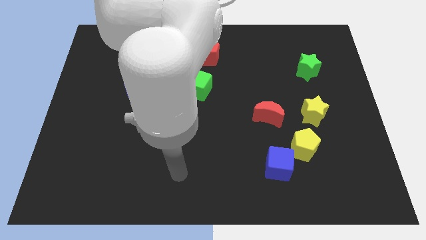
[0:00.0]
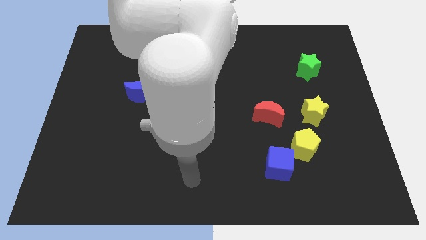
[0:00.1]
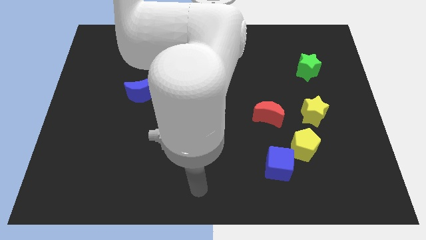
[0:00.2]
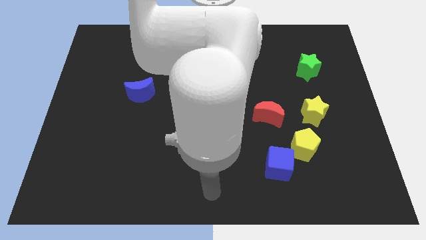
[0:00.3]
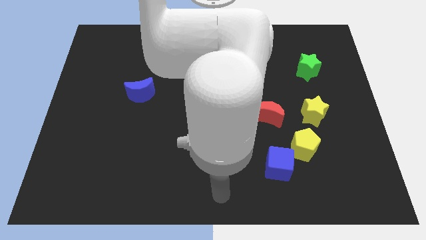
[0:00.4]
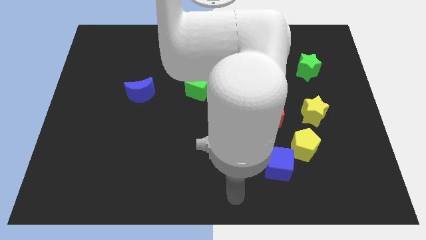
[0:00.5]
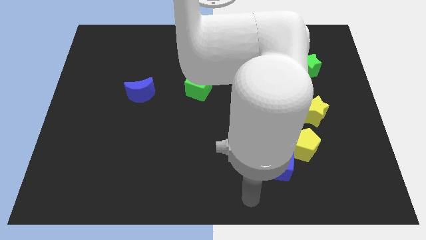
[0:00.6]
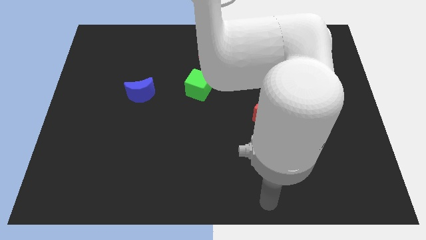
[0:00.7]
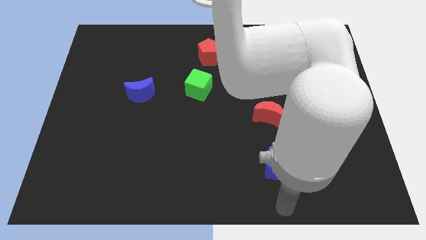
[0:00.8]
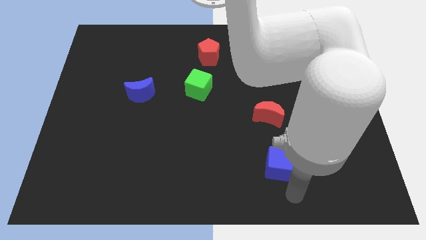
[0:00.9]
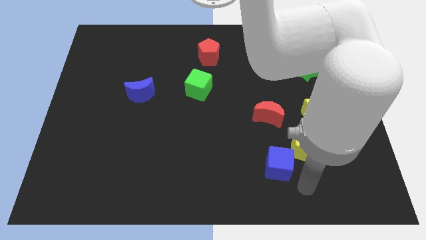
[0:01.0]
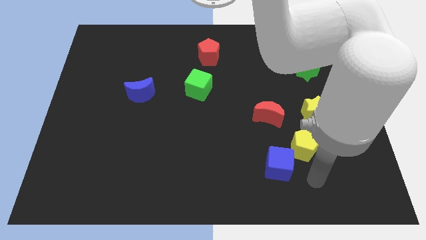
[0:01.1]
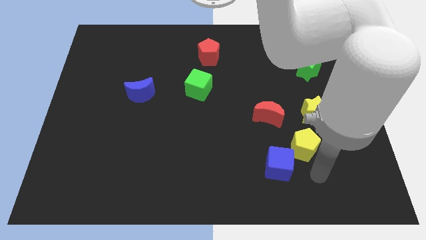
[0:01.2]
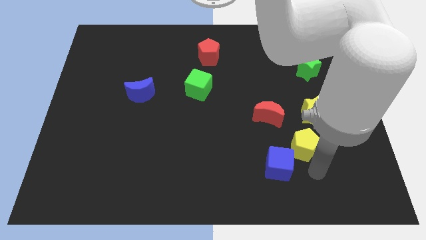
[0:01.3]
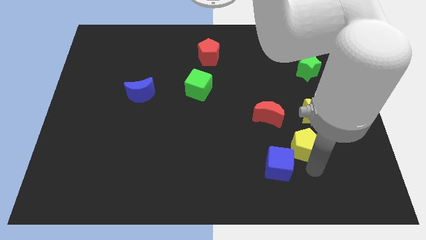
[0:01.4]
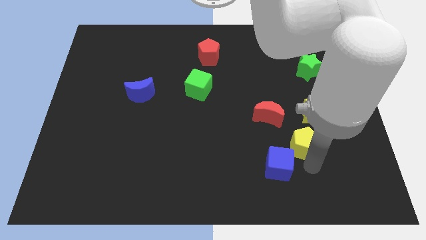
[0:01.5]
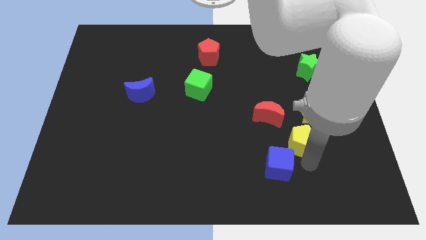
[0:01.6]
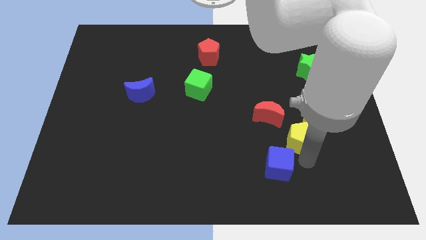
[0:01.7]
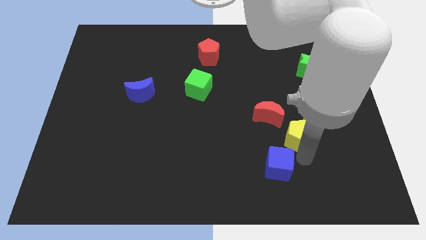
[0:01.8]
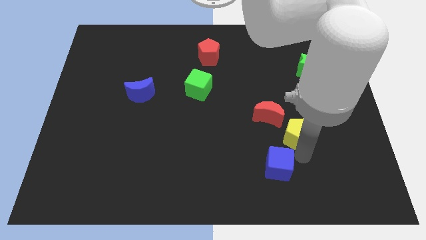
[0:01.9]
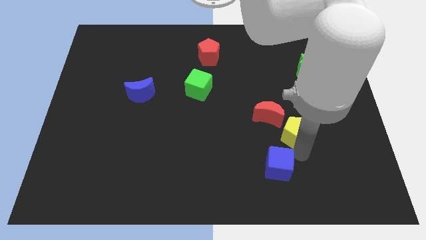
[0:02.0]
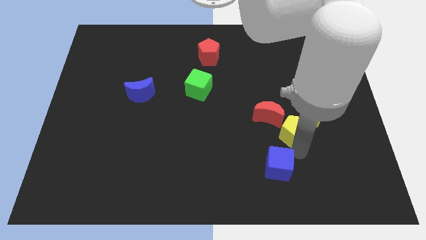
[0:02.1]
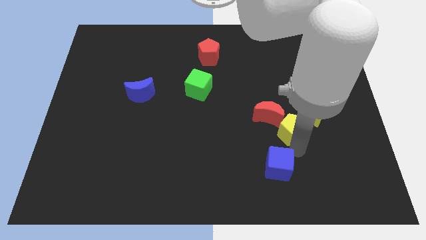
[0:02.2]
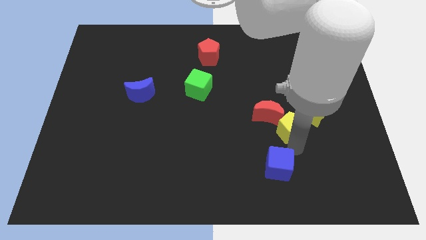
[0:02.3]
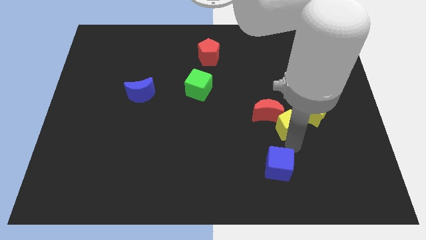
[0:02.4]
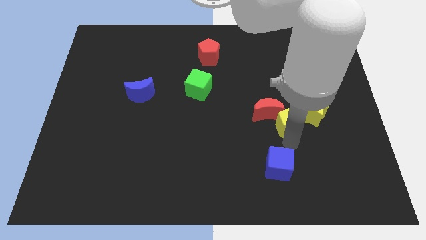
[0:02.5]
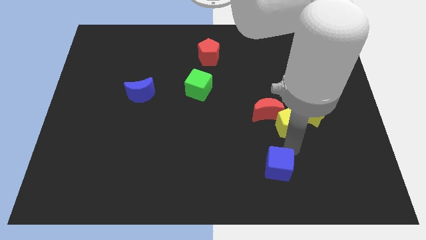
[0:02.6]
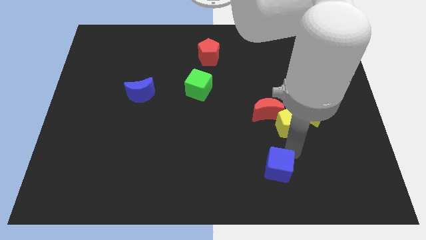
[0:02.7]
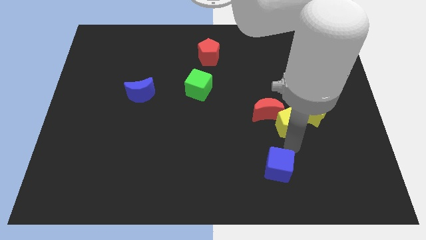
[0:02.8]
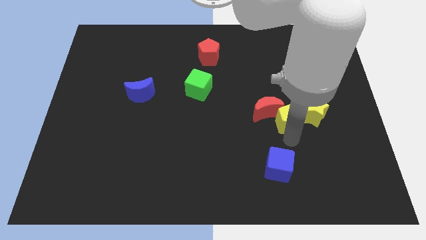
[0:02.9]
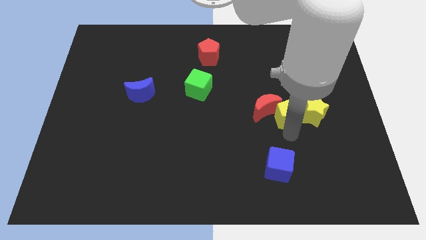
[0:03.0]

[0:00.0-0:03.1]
slide the yellow pentagon a bit upwards

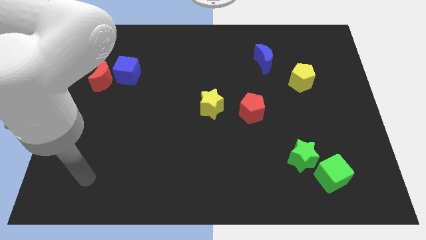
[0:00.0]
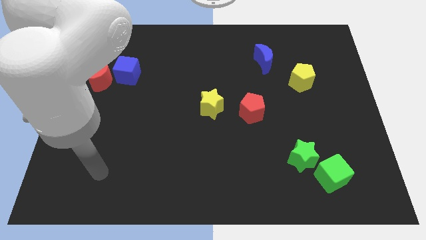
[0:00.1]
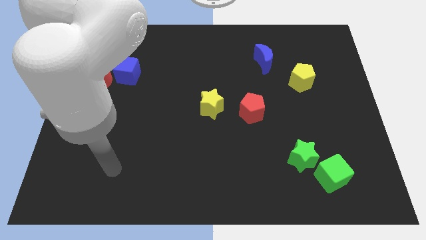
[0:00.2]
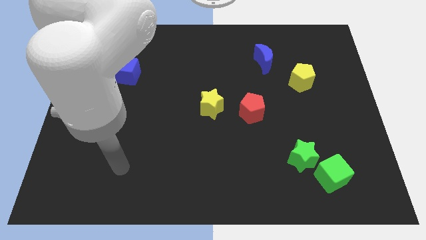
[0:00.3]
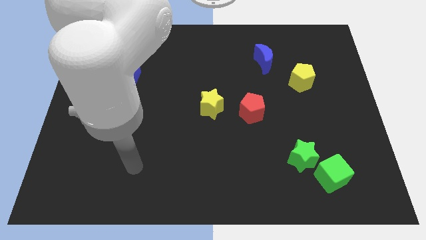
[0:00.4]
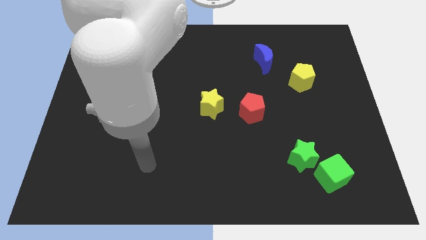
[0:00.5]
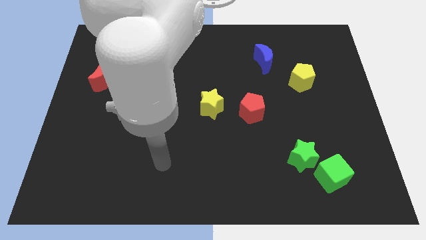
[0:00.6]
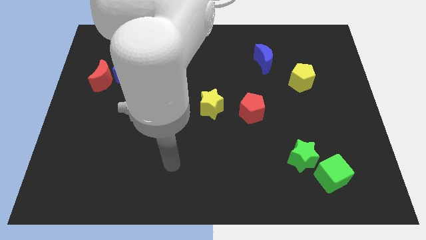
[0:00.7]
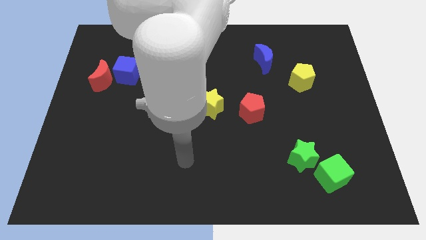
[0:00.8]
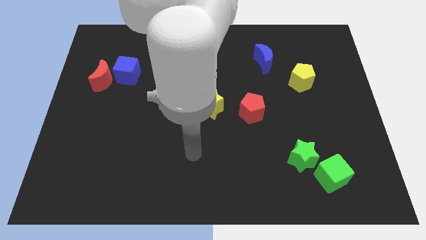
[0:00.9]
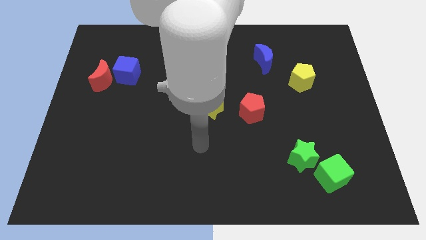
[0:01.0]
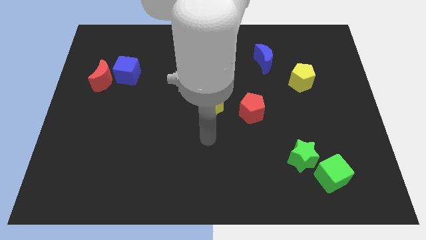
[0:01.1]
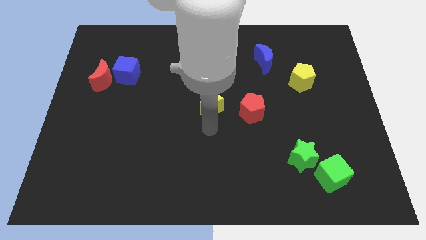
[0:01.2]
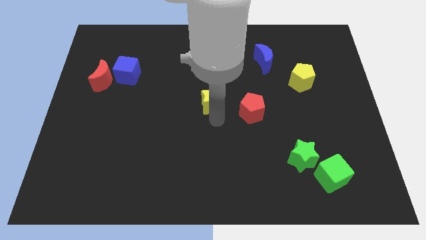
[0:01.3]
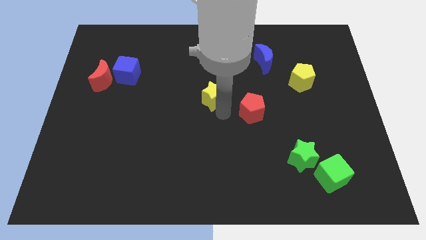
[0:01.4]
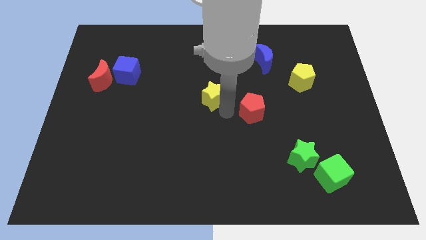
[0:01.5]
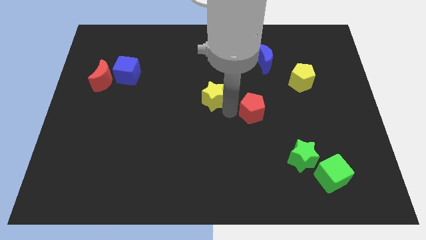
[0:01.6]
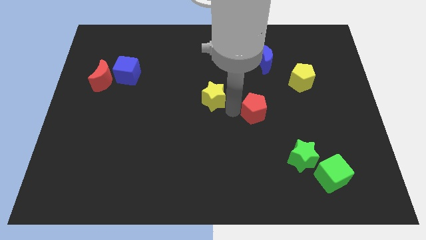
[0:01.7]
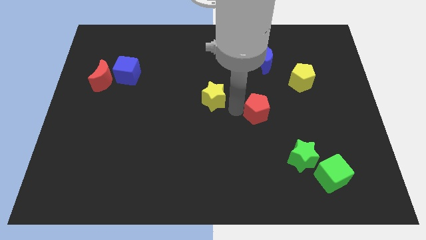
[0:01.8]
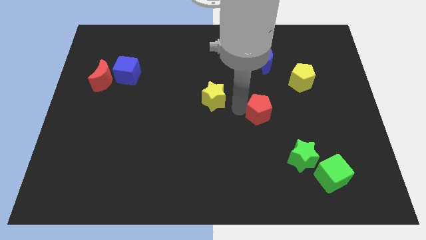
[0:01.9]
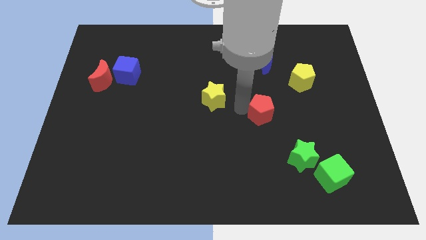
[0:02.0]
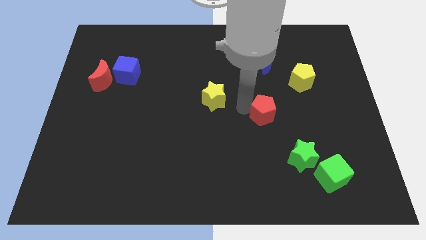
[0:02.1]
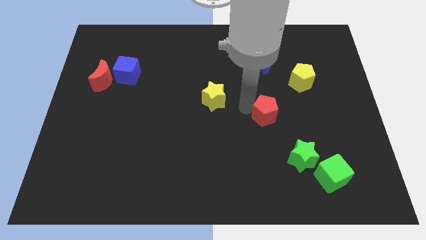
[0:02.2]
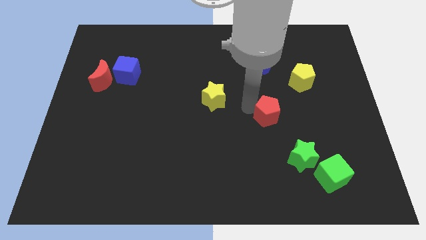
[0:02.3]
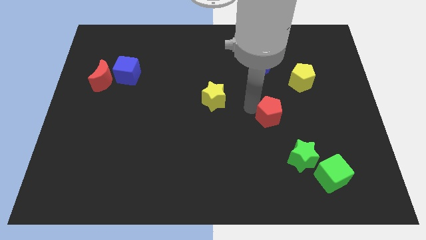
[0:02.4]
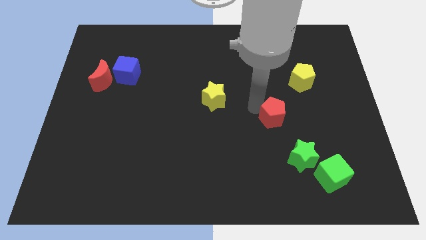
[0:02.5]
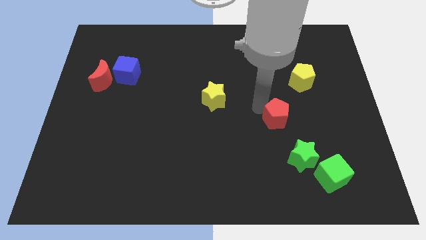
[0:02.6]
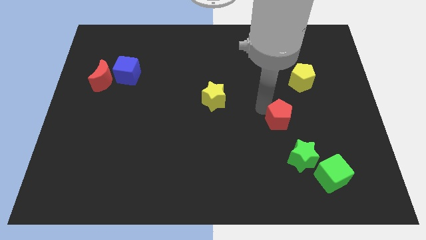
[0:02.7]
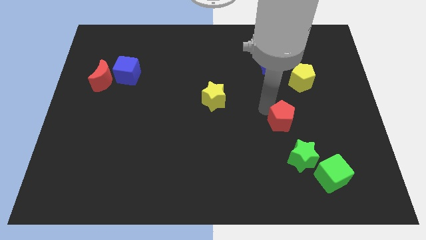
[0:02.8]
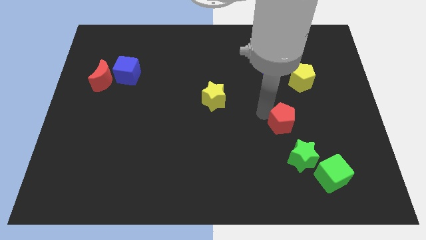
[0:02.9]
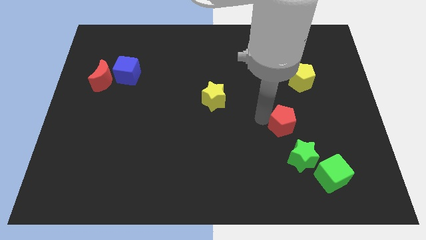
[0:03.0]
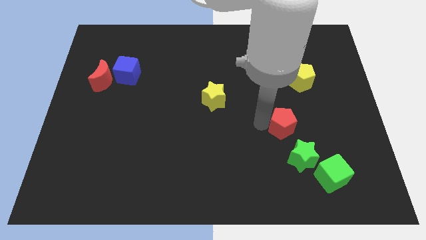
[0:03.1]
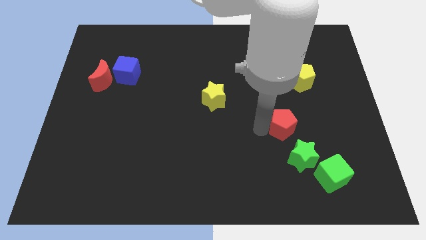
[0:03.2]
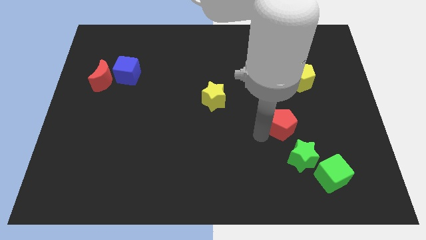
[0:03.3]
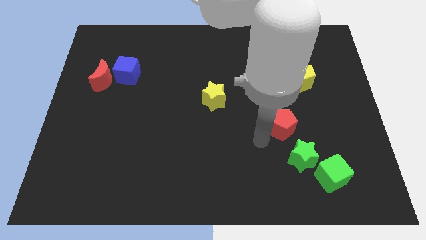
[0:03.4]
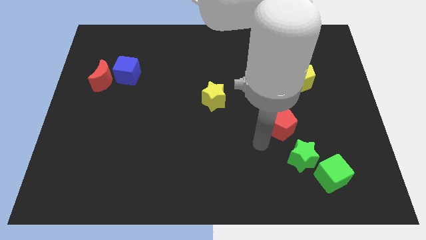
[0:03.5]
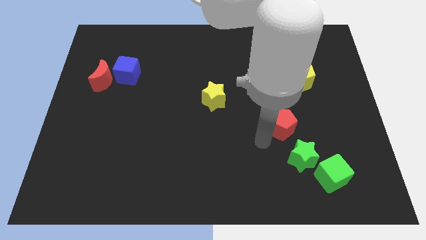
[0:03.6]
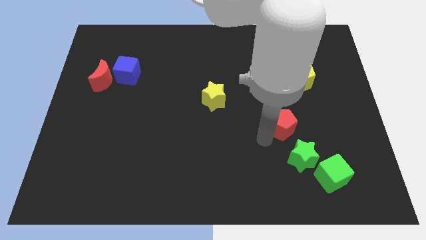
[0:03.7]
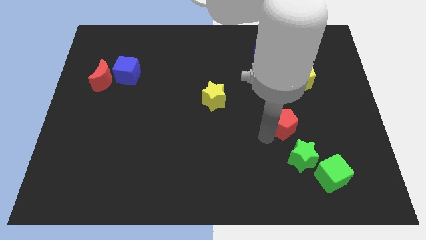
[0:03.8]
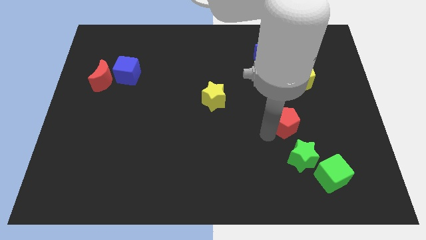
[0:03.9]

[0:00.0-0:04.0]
slide the red pentagon right somewhat

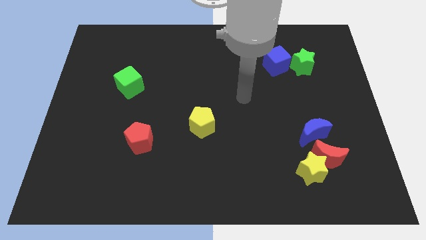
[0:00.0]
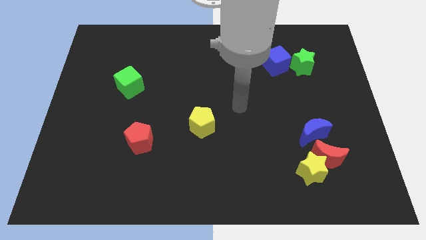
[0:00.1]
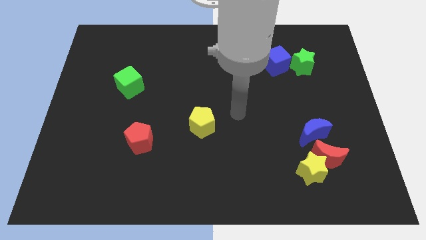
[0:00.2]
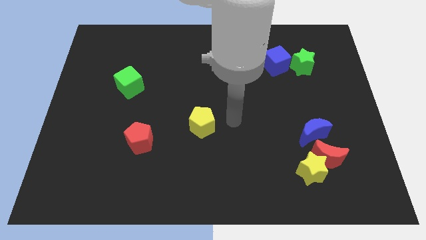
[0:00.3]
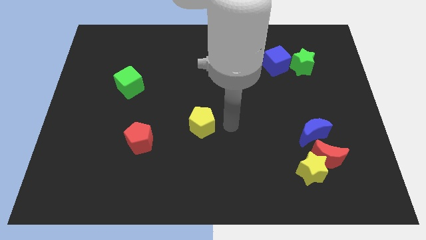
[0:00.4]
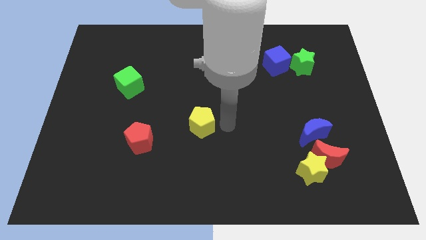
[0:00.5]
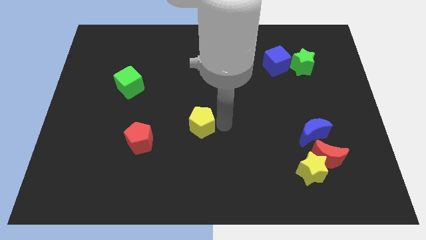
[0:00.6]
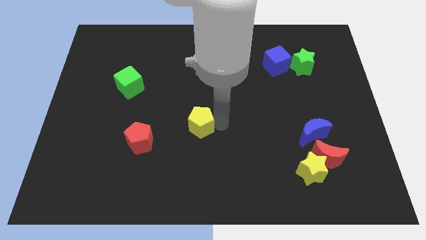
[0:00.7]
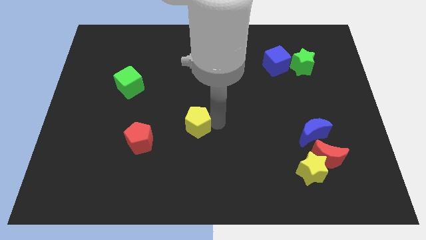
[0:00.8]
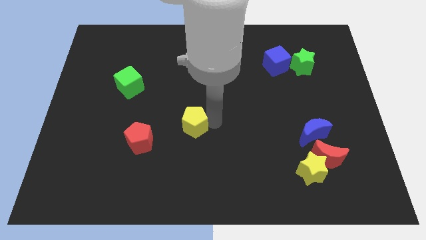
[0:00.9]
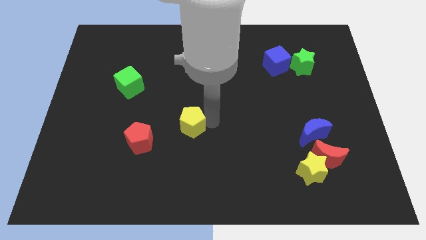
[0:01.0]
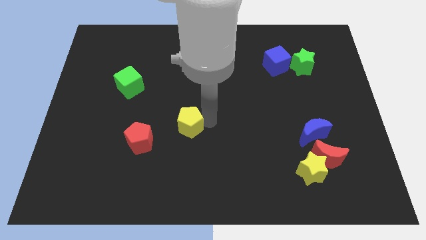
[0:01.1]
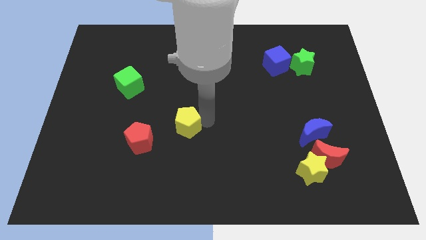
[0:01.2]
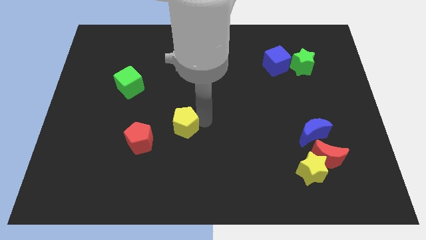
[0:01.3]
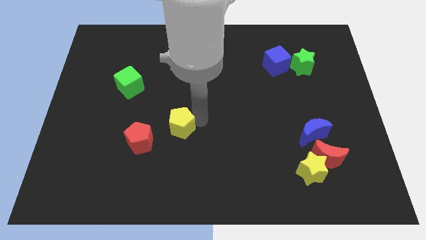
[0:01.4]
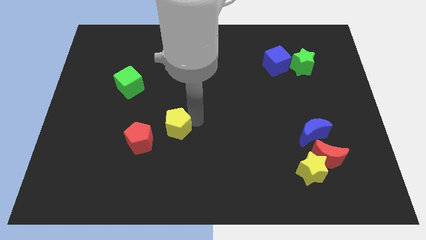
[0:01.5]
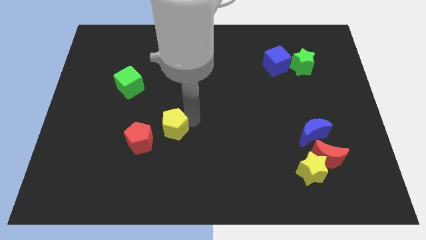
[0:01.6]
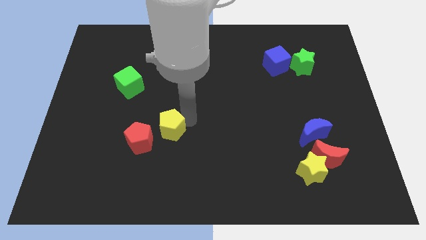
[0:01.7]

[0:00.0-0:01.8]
slide the yellow pentagon somewhat left
